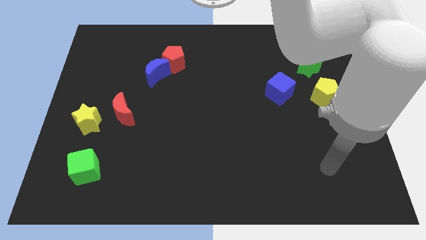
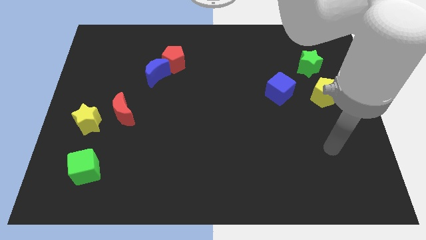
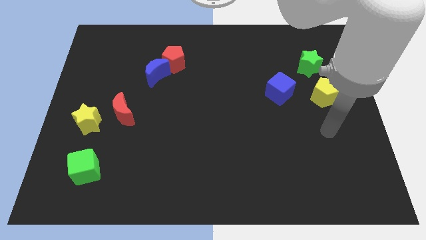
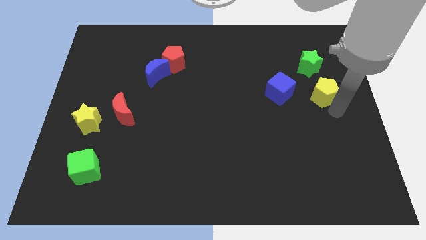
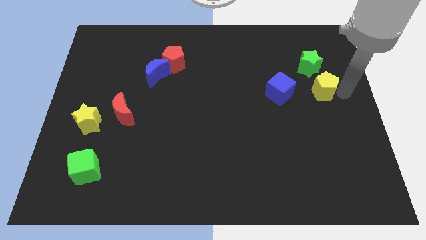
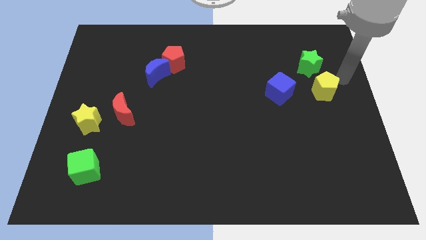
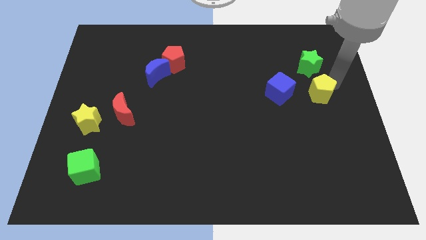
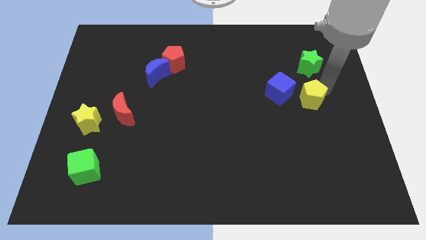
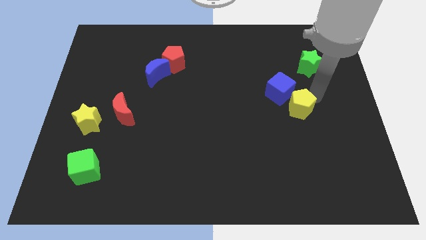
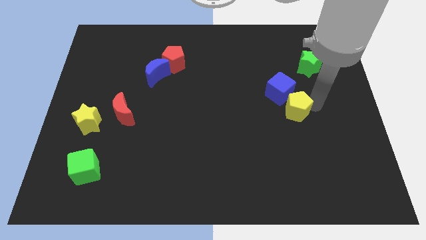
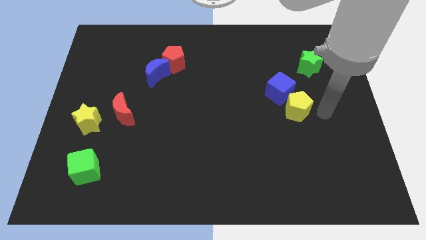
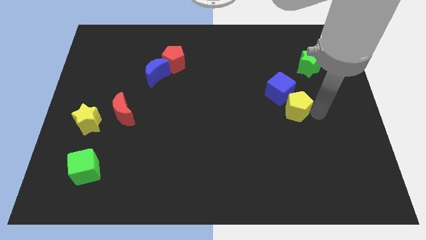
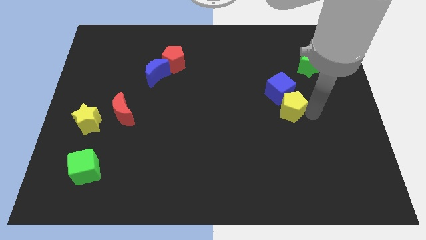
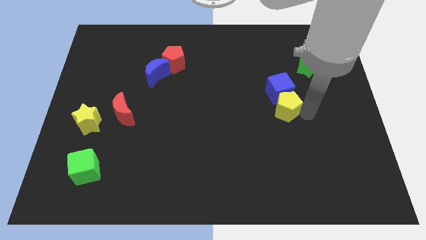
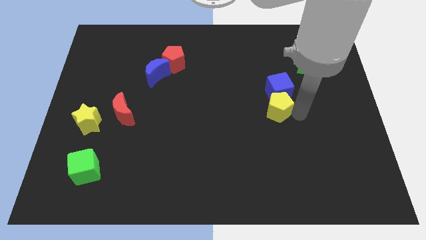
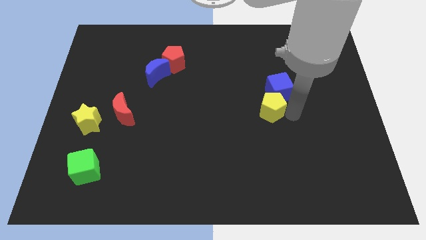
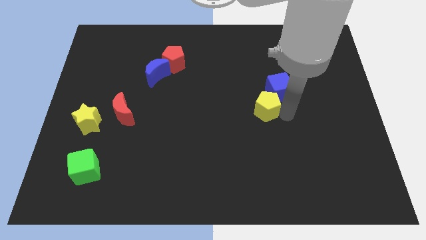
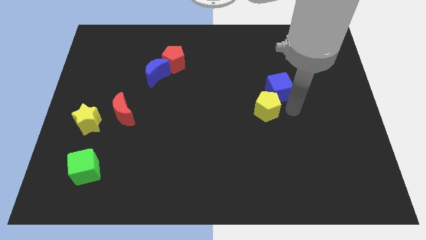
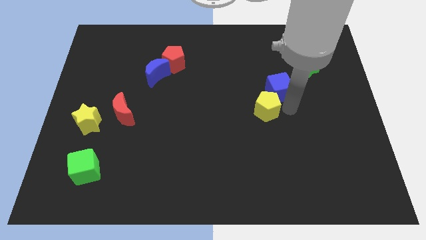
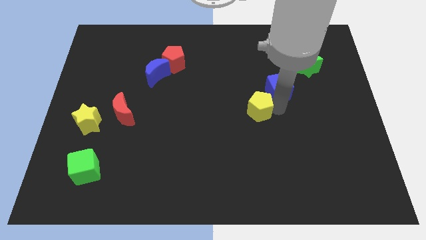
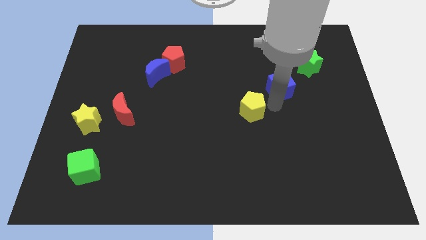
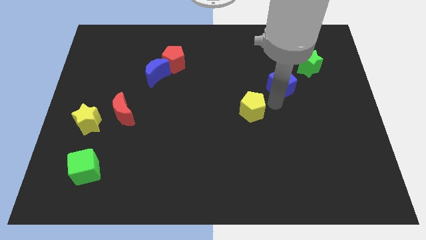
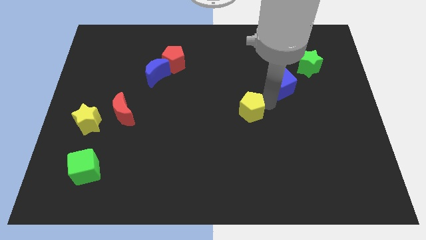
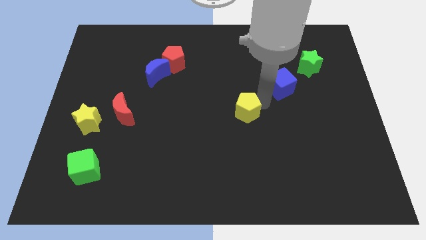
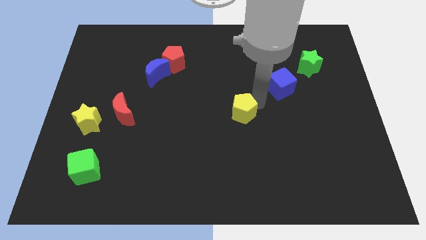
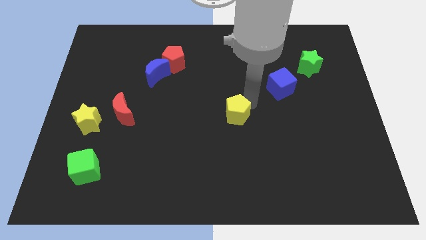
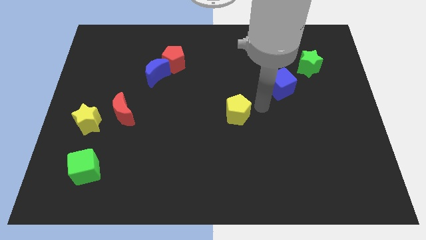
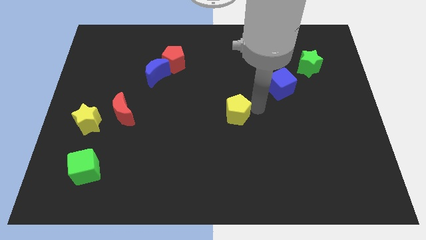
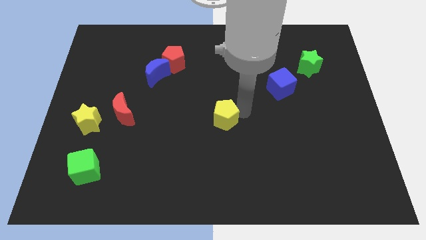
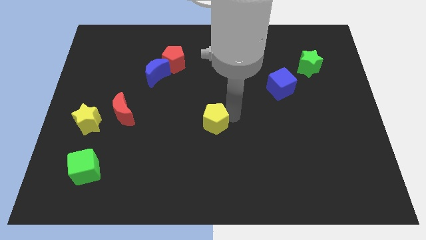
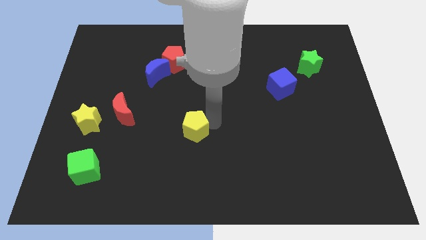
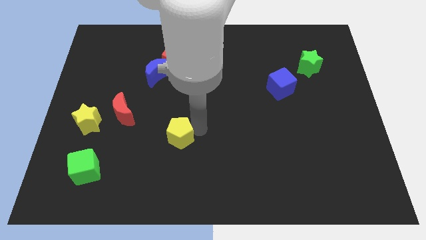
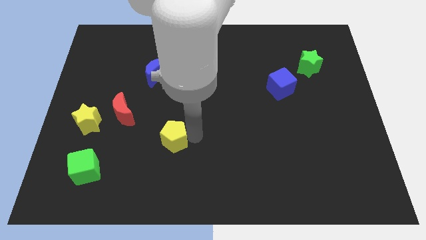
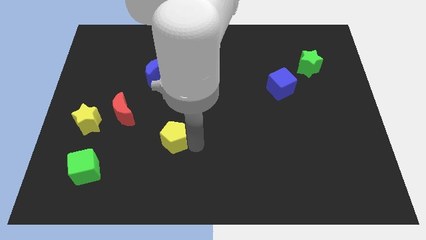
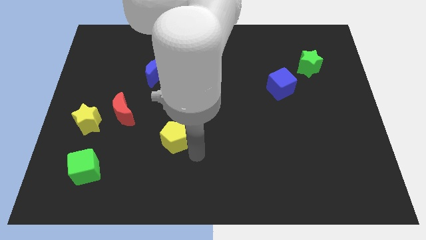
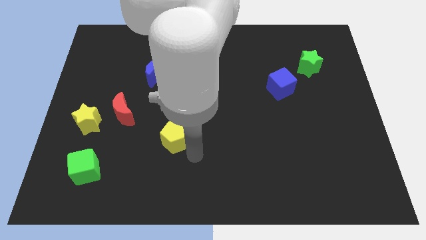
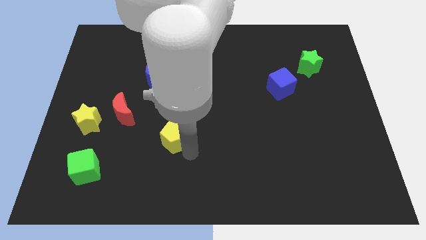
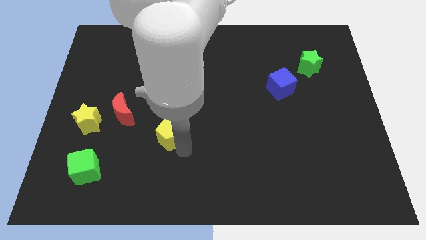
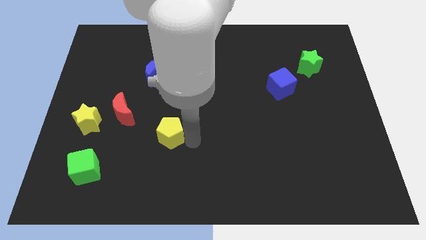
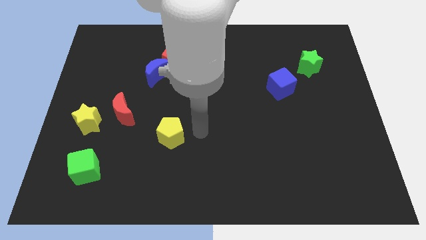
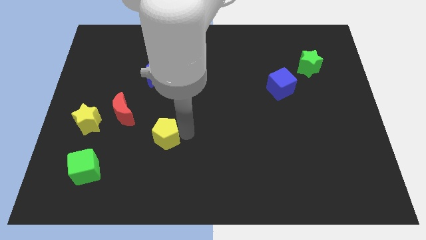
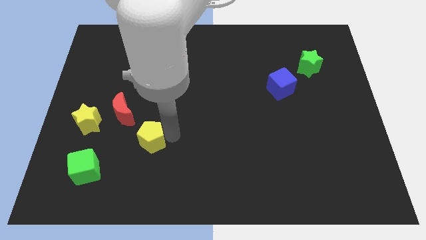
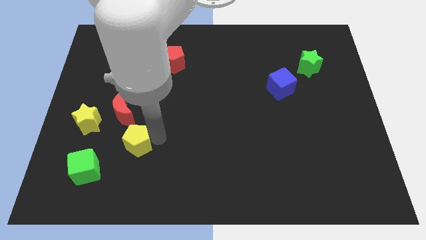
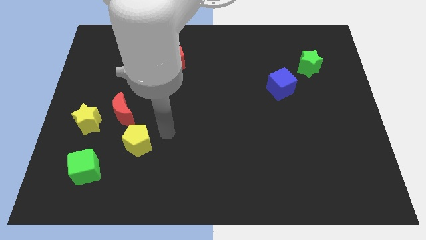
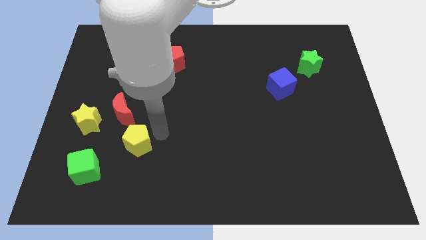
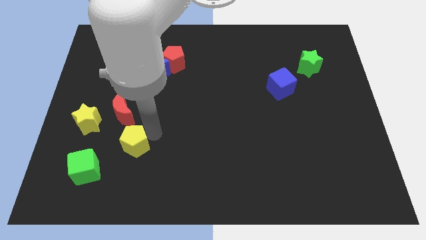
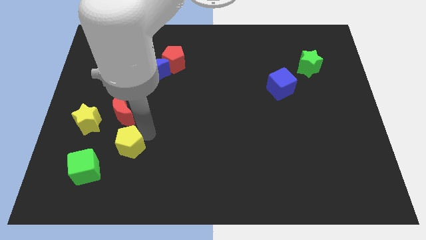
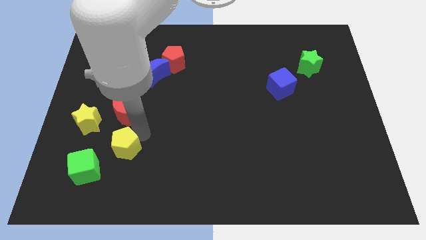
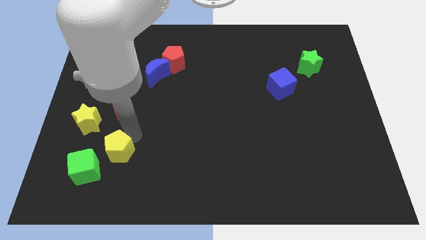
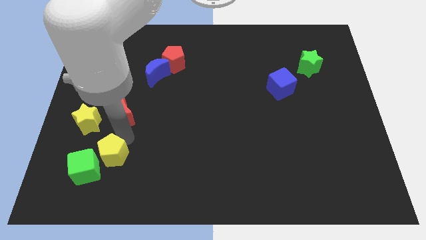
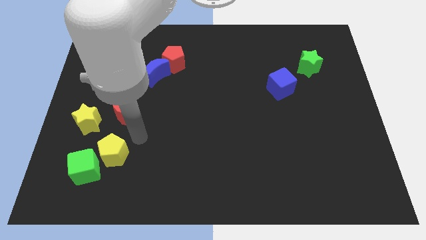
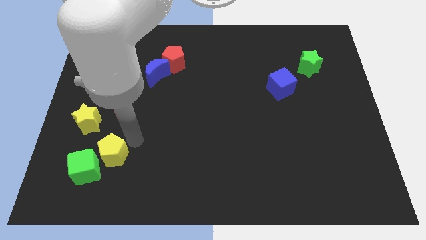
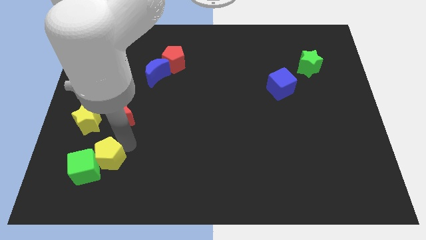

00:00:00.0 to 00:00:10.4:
move the yellow pentagon next to the green cube

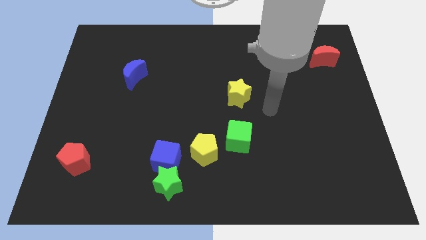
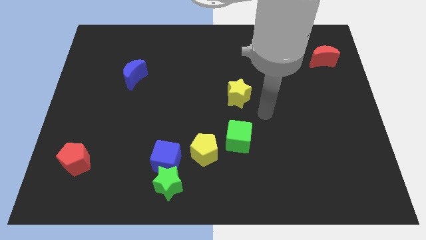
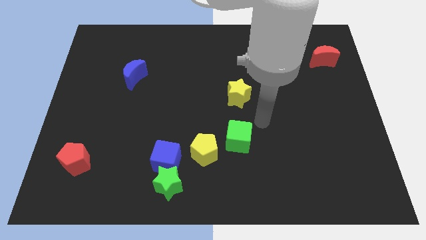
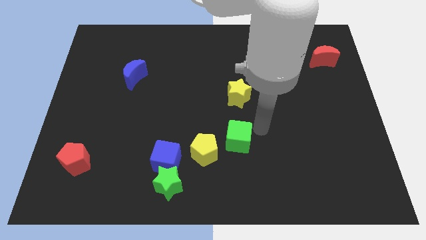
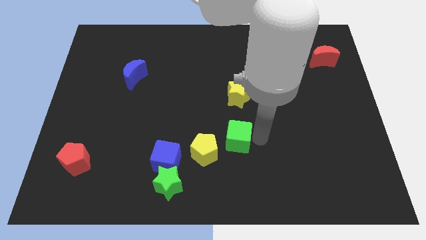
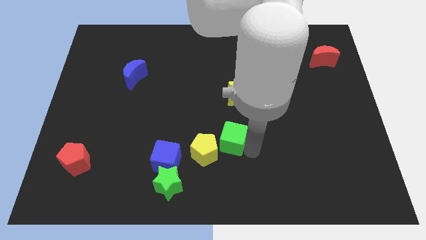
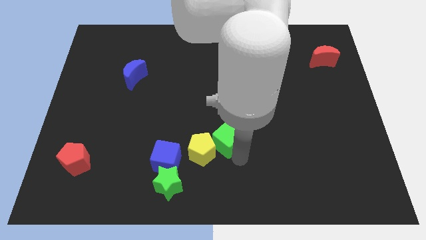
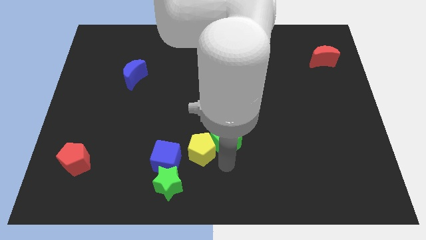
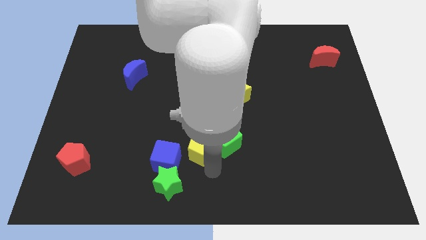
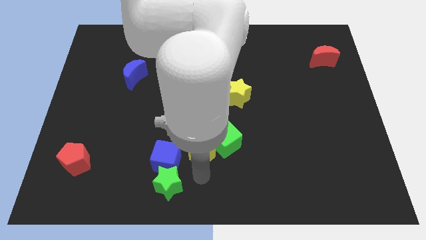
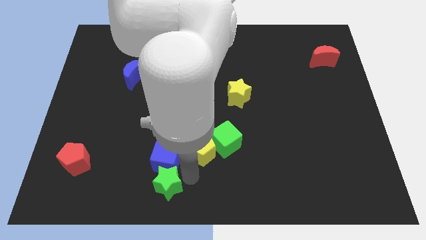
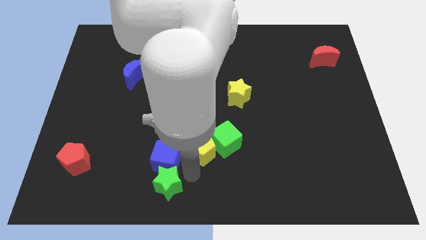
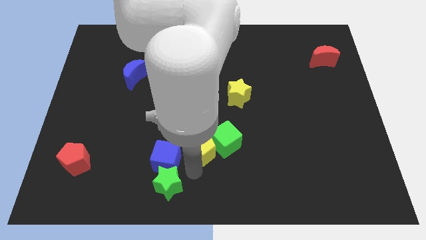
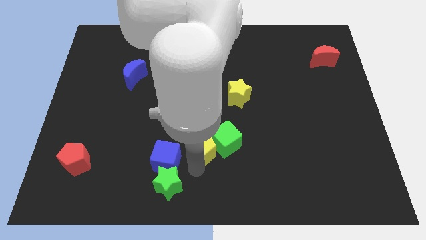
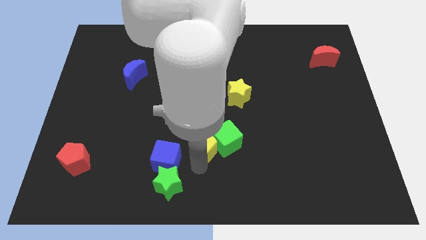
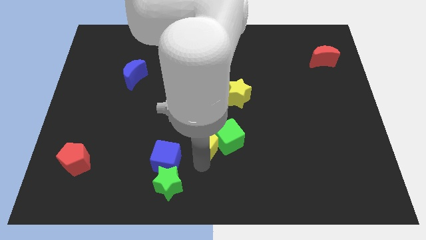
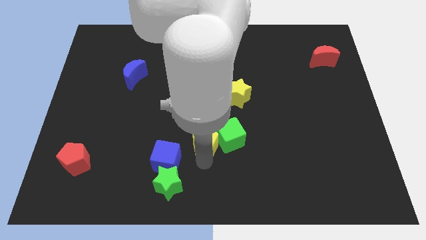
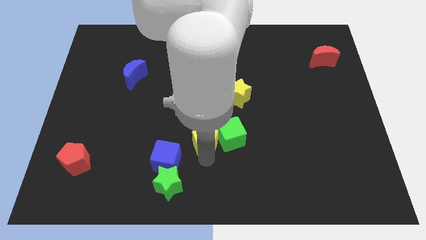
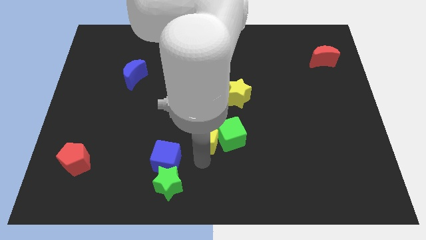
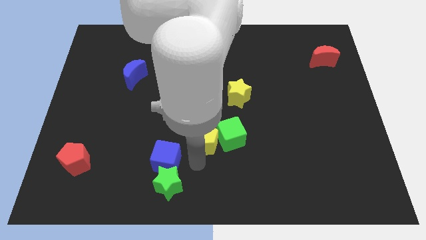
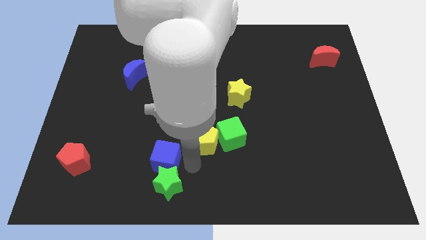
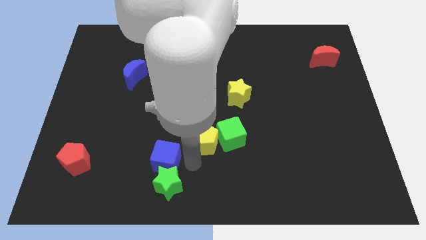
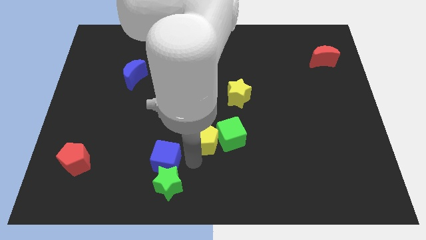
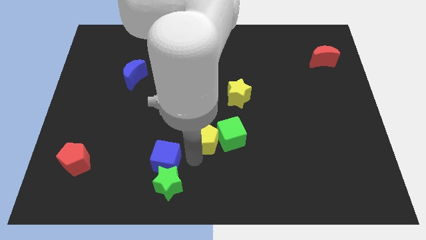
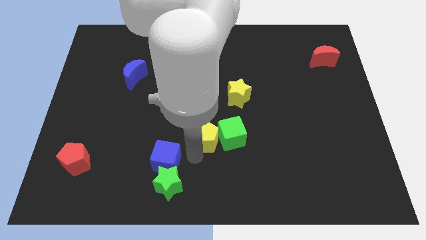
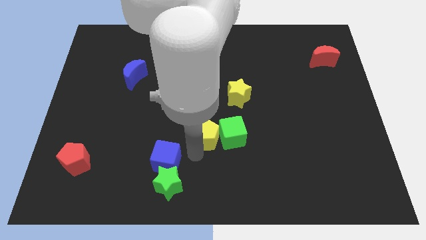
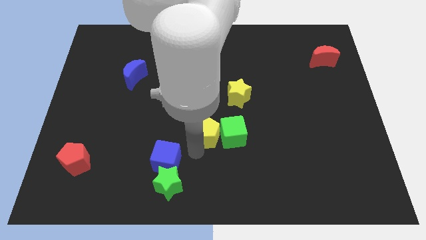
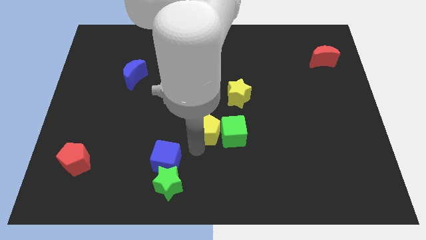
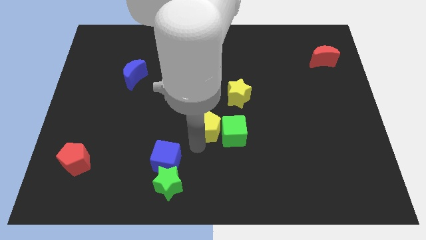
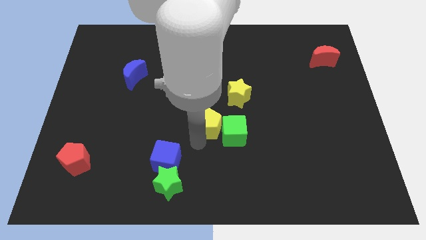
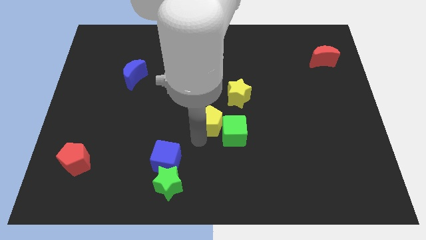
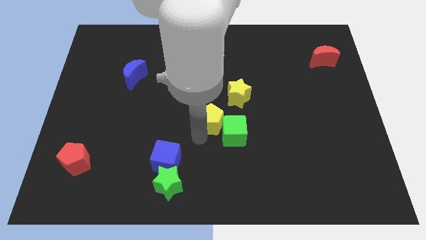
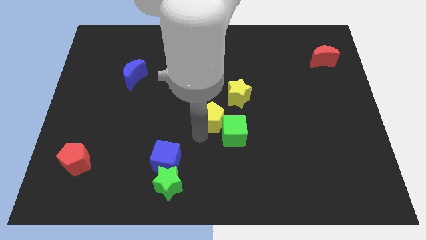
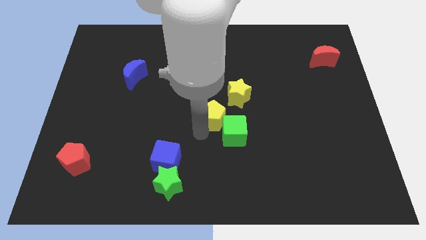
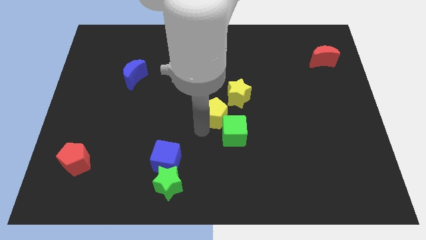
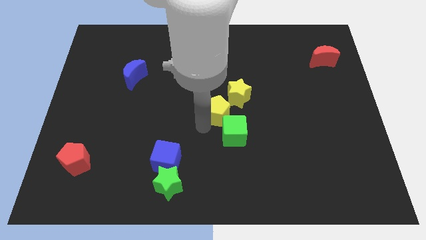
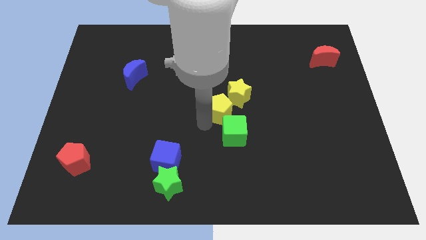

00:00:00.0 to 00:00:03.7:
push the yellow pentagon close to the yellow star
